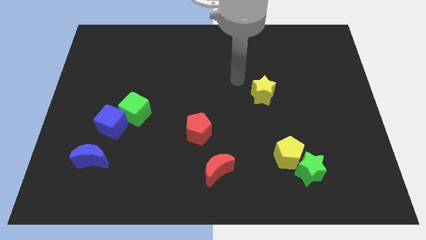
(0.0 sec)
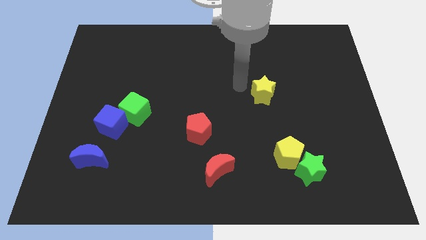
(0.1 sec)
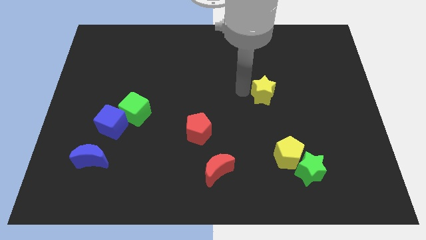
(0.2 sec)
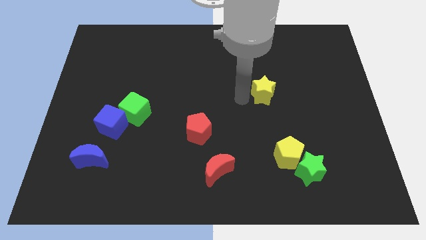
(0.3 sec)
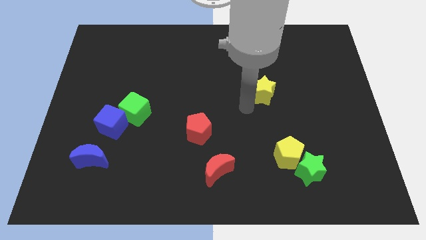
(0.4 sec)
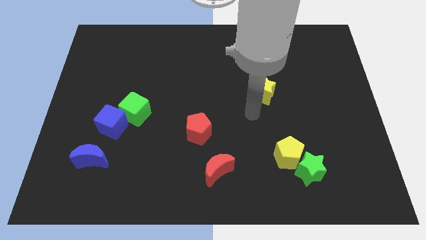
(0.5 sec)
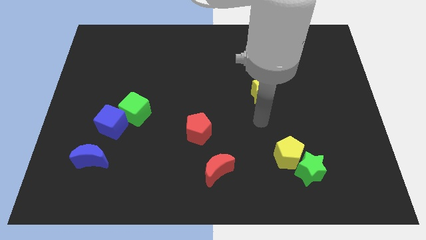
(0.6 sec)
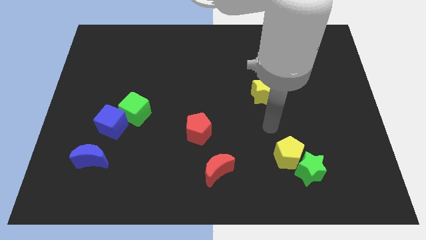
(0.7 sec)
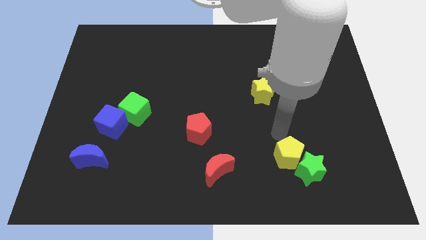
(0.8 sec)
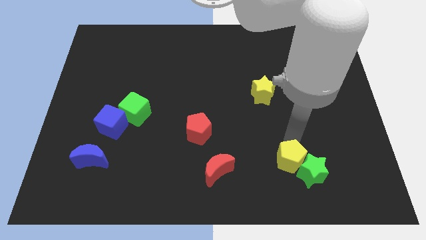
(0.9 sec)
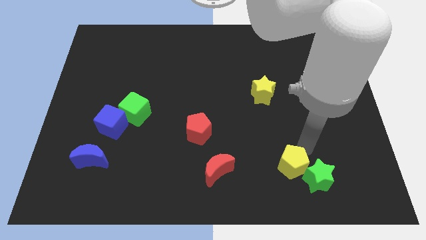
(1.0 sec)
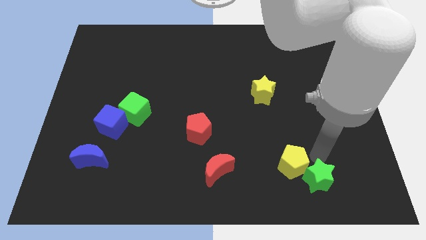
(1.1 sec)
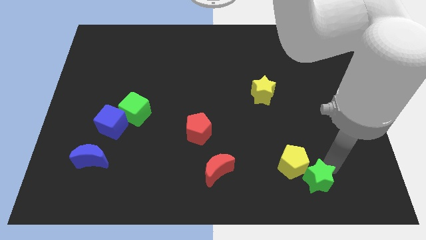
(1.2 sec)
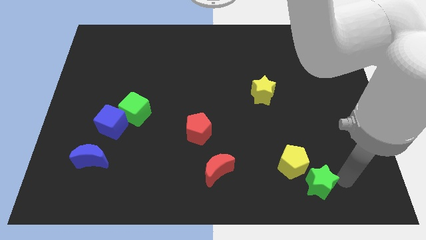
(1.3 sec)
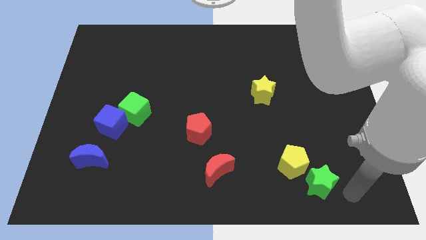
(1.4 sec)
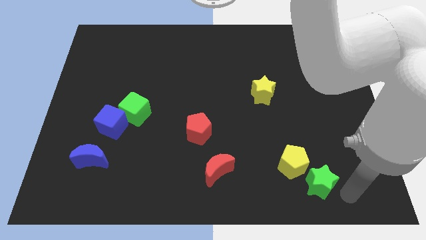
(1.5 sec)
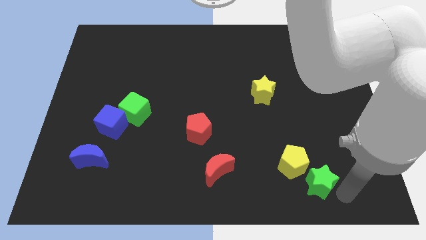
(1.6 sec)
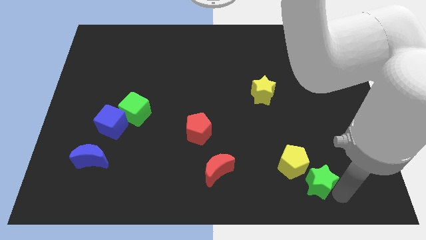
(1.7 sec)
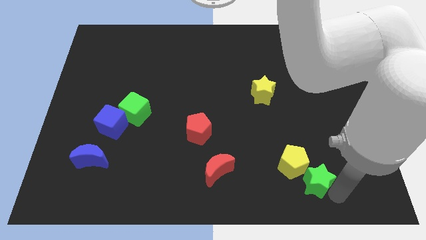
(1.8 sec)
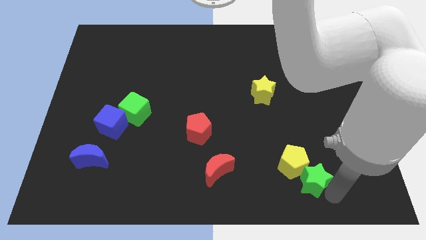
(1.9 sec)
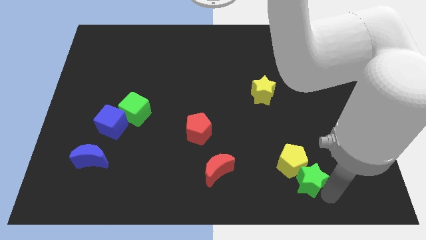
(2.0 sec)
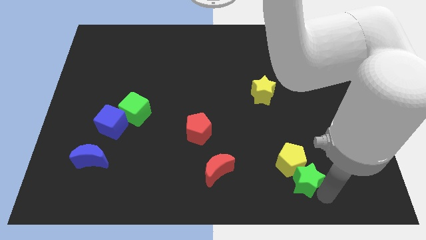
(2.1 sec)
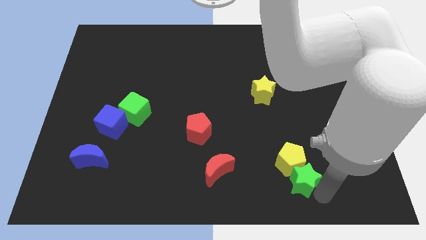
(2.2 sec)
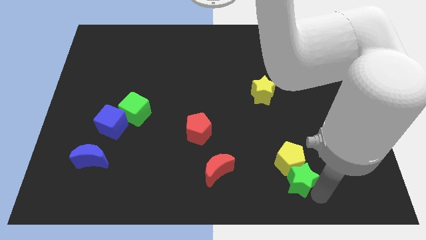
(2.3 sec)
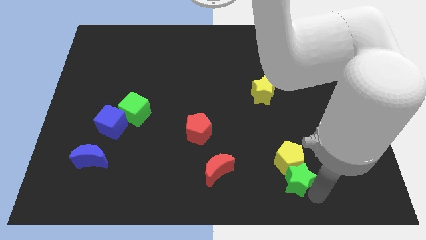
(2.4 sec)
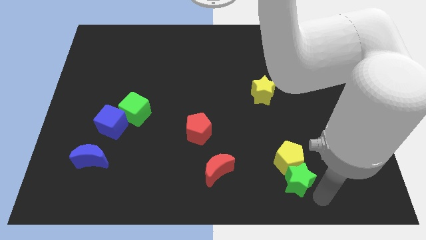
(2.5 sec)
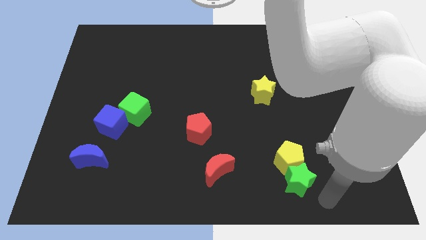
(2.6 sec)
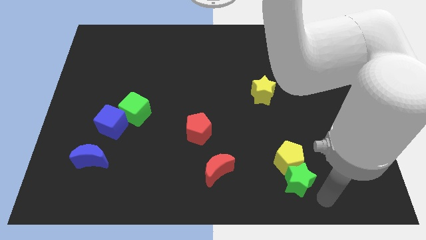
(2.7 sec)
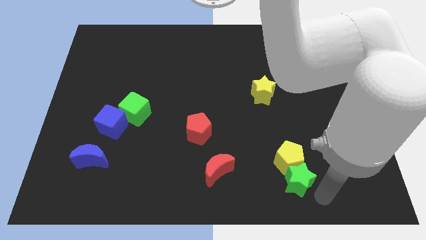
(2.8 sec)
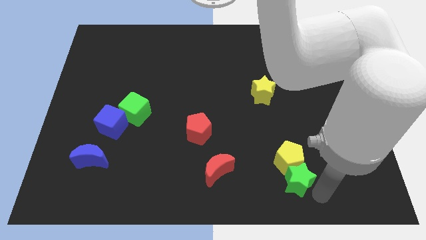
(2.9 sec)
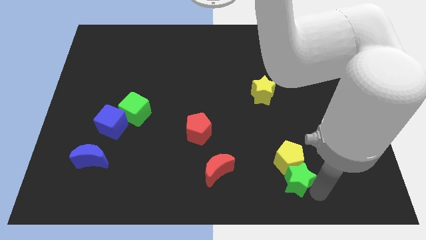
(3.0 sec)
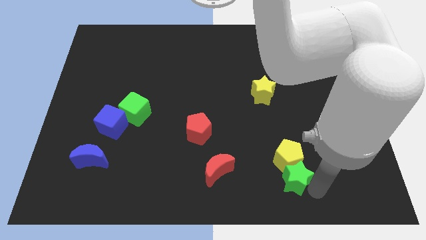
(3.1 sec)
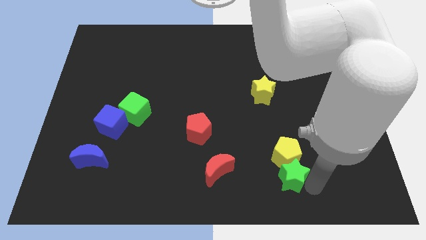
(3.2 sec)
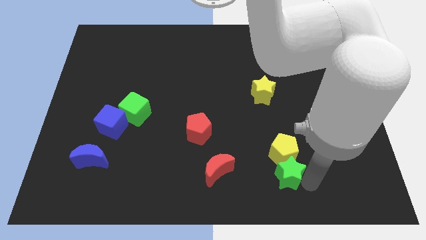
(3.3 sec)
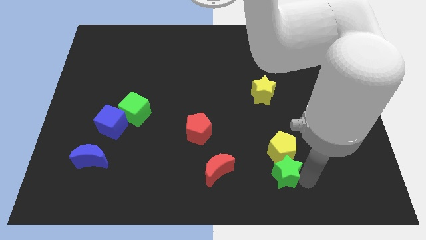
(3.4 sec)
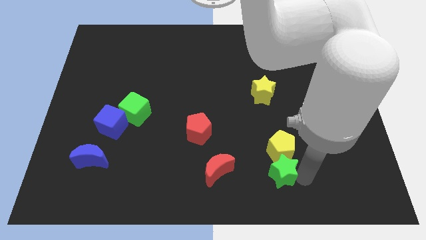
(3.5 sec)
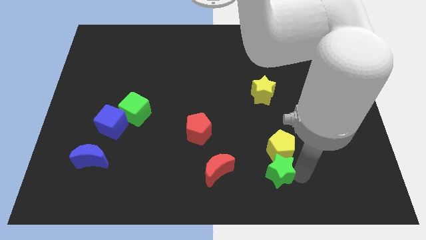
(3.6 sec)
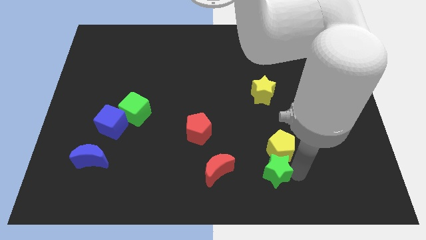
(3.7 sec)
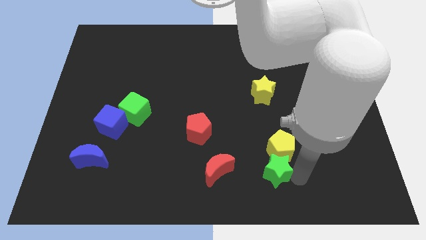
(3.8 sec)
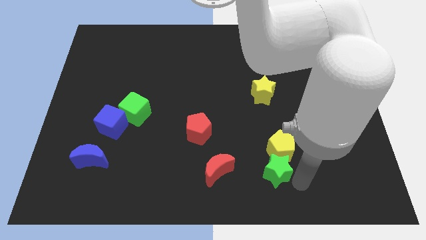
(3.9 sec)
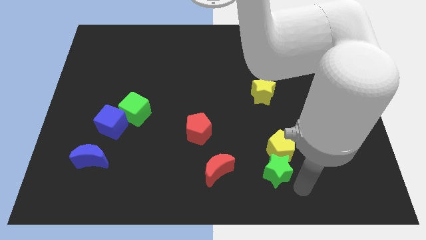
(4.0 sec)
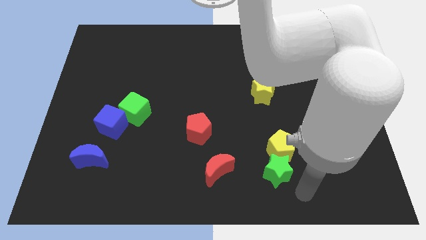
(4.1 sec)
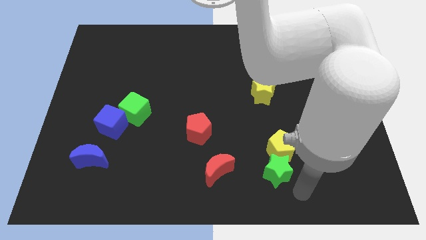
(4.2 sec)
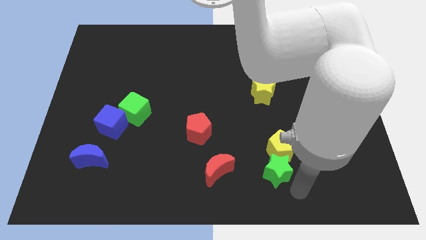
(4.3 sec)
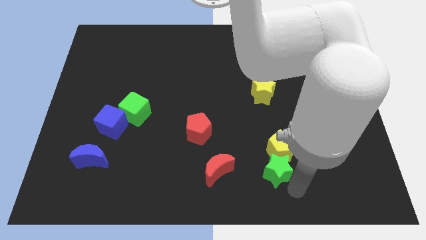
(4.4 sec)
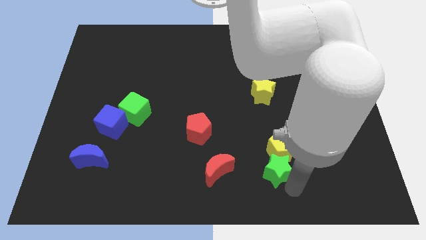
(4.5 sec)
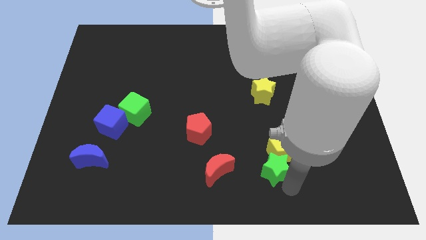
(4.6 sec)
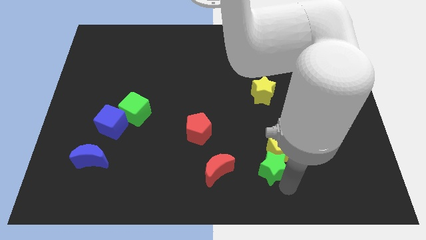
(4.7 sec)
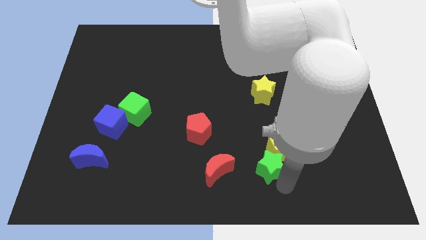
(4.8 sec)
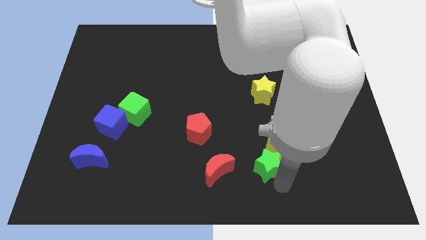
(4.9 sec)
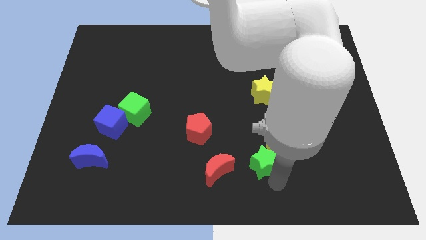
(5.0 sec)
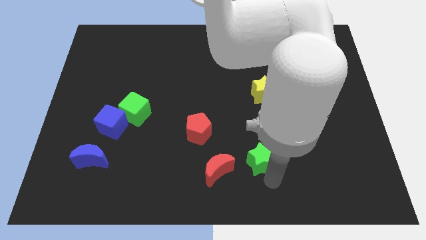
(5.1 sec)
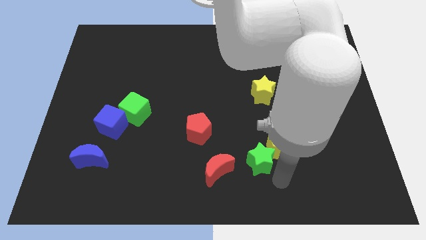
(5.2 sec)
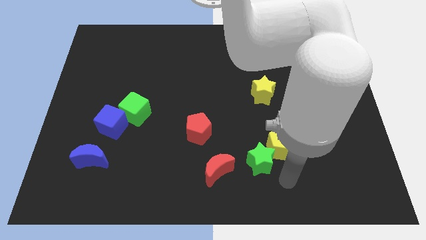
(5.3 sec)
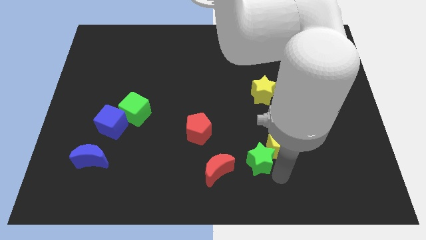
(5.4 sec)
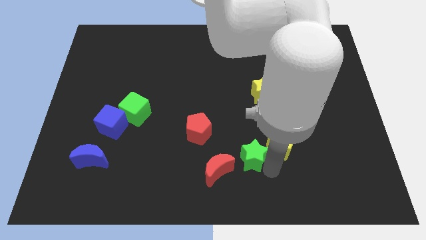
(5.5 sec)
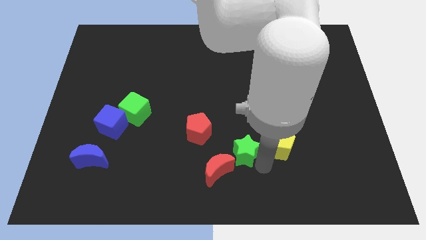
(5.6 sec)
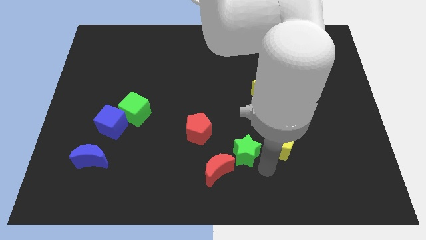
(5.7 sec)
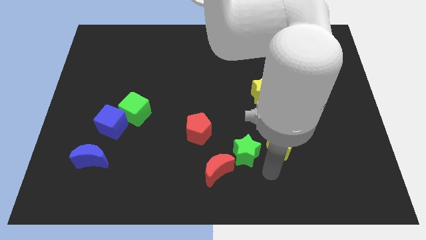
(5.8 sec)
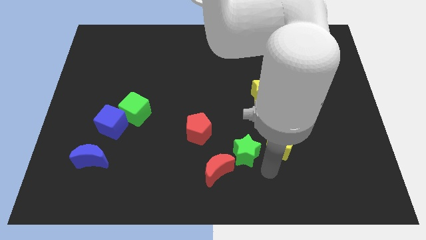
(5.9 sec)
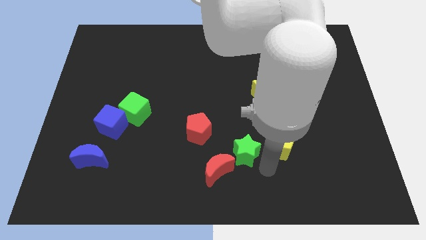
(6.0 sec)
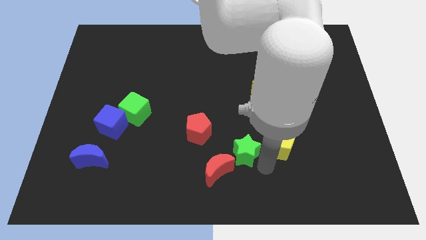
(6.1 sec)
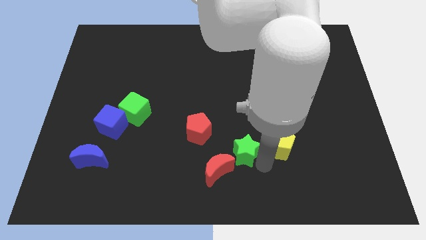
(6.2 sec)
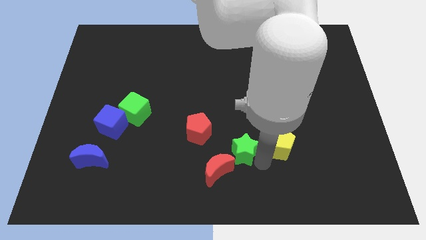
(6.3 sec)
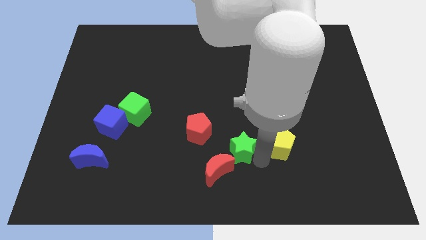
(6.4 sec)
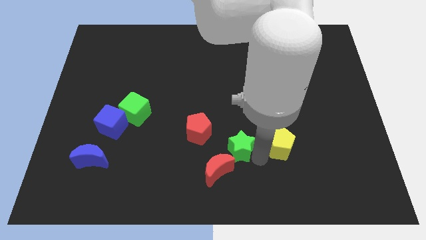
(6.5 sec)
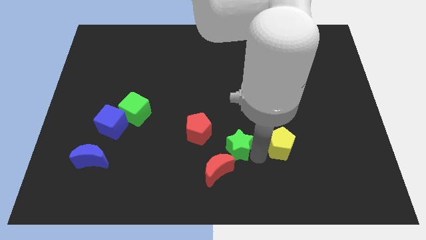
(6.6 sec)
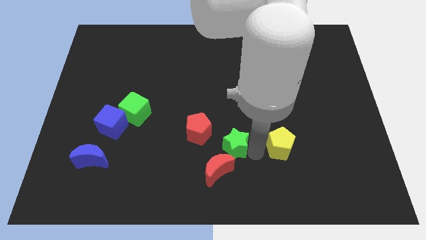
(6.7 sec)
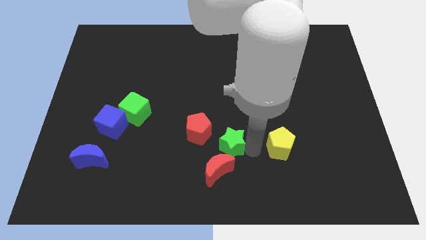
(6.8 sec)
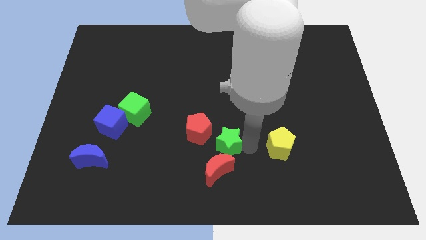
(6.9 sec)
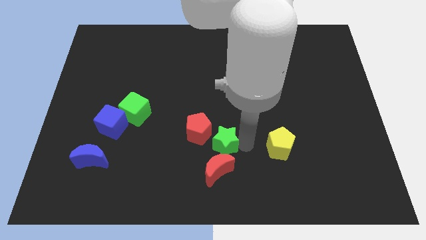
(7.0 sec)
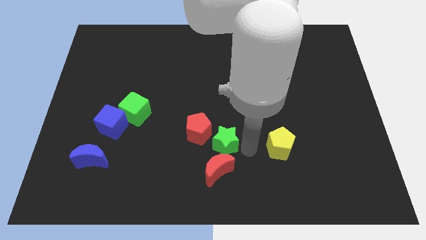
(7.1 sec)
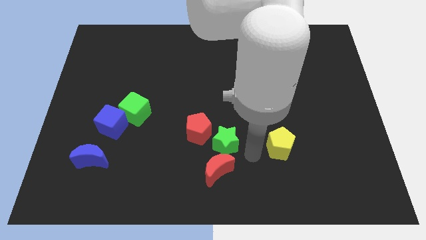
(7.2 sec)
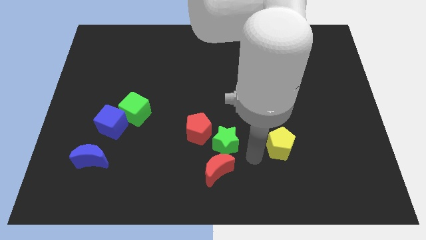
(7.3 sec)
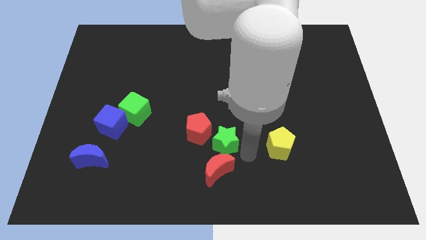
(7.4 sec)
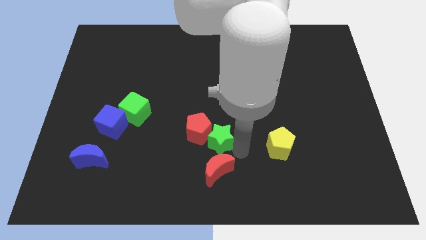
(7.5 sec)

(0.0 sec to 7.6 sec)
move the green star towards the red pentagon
